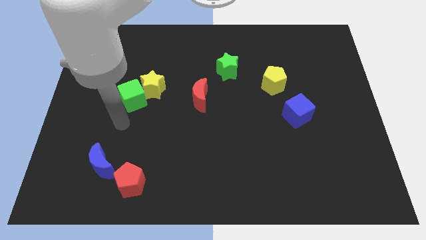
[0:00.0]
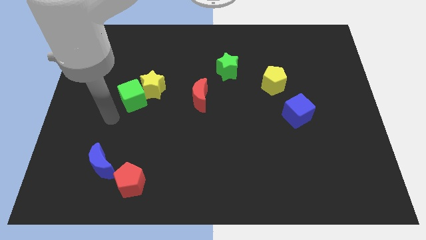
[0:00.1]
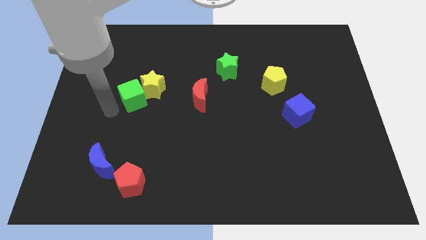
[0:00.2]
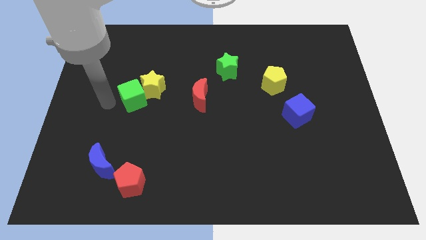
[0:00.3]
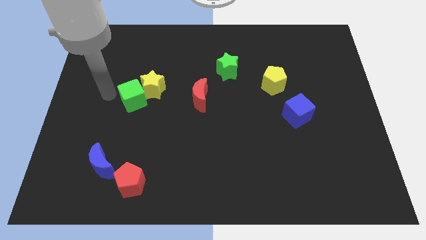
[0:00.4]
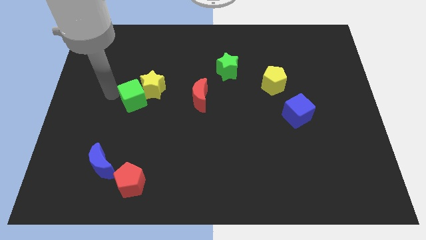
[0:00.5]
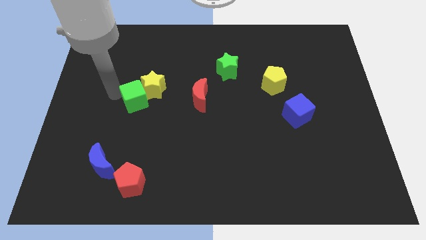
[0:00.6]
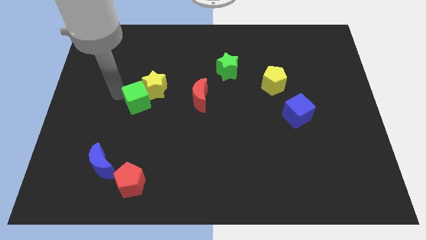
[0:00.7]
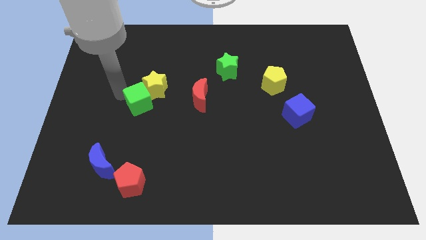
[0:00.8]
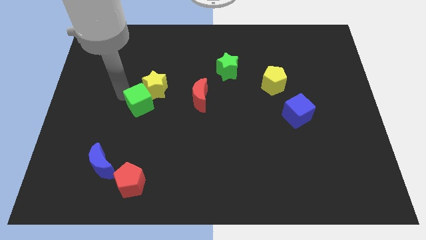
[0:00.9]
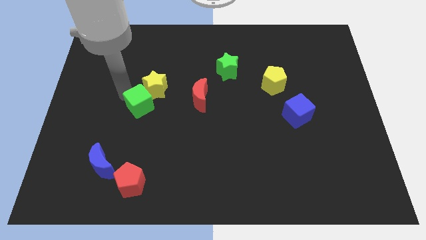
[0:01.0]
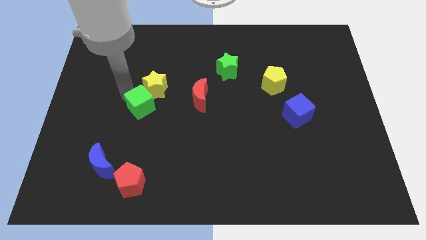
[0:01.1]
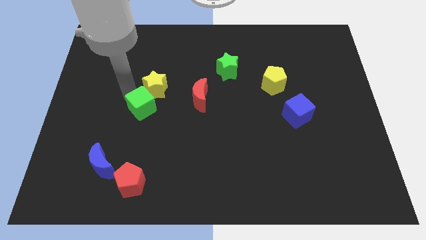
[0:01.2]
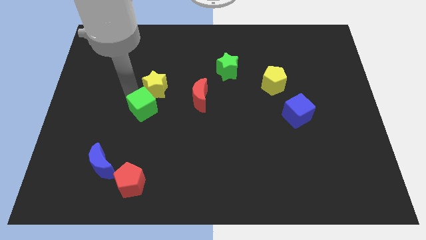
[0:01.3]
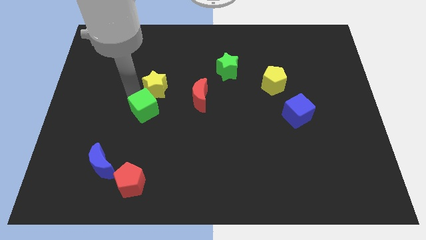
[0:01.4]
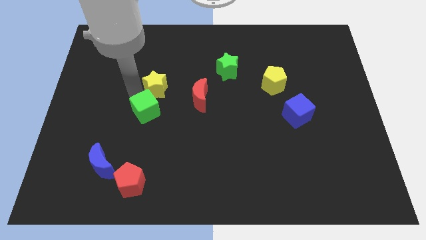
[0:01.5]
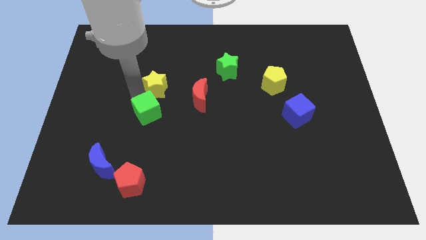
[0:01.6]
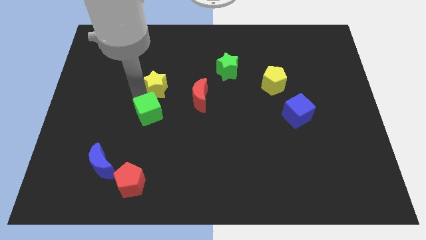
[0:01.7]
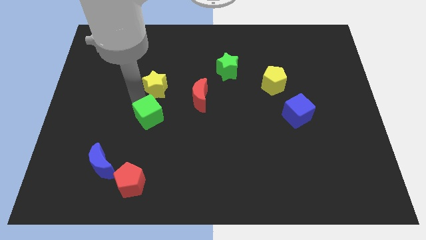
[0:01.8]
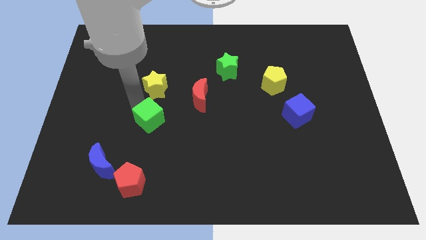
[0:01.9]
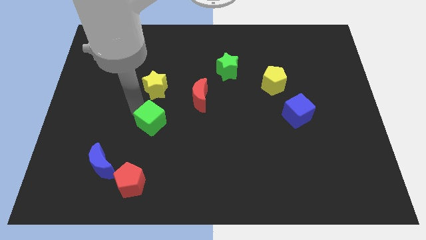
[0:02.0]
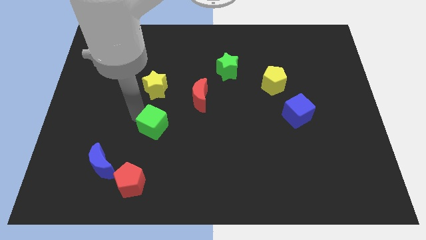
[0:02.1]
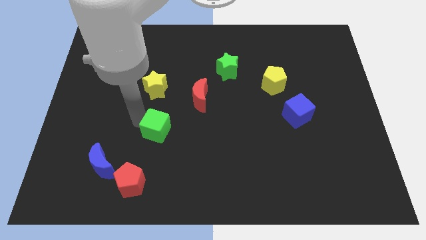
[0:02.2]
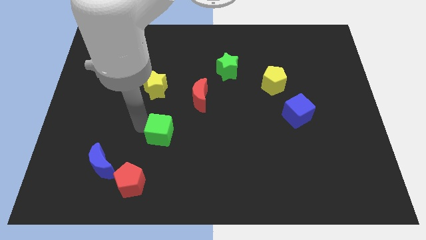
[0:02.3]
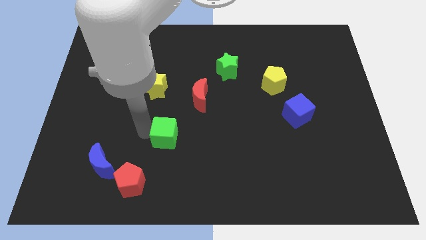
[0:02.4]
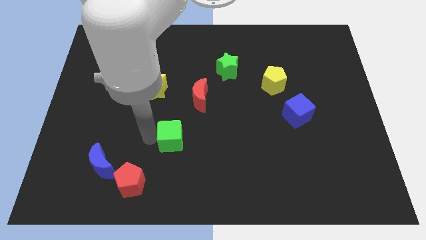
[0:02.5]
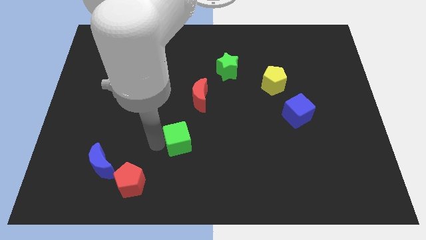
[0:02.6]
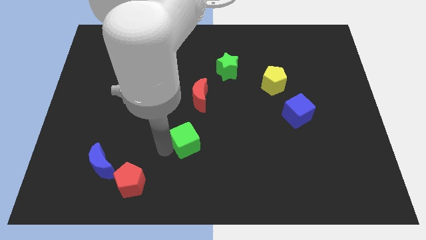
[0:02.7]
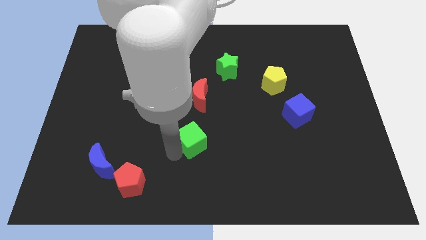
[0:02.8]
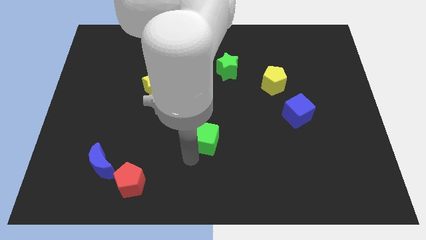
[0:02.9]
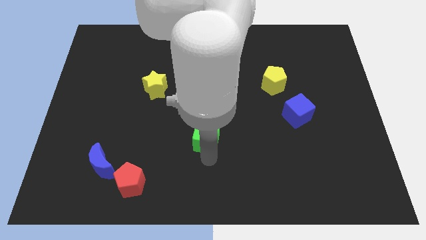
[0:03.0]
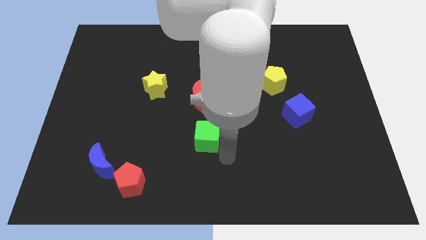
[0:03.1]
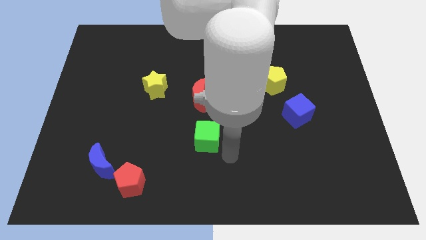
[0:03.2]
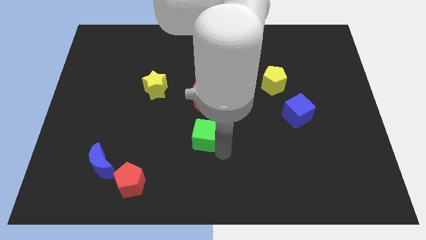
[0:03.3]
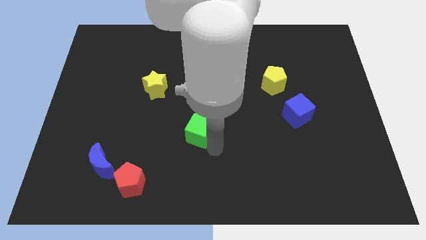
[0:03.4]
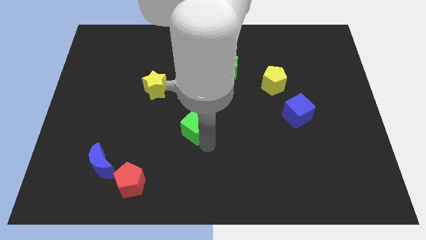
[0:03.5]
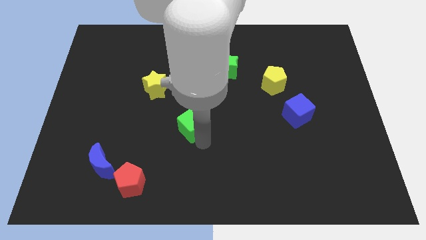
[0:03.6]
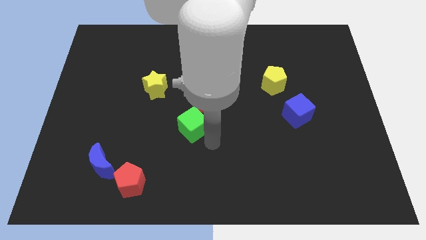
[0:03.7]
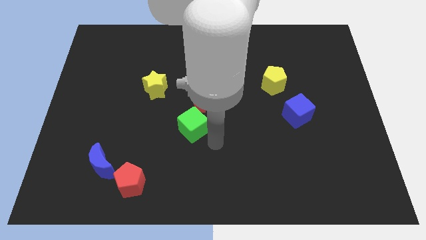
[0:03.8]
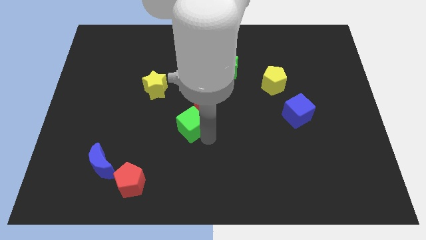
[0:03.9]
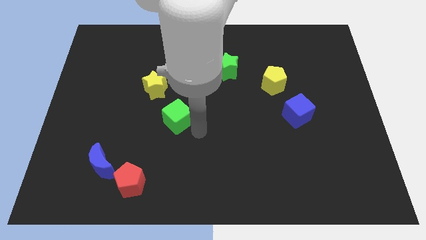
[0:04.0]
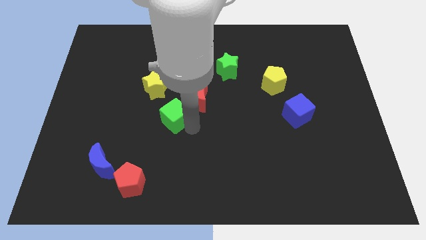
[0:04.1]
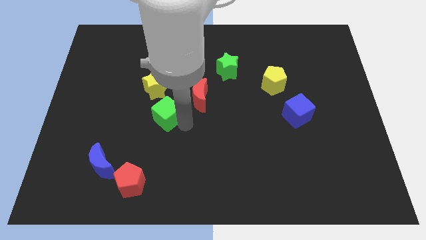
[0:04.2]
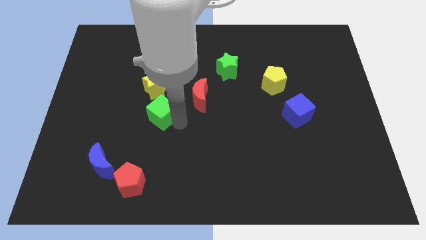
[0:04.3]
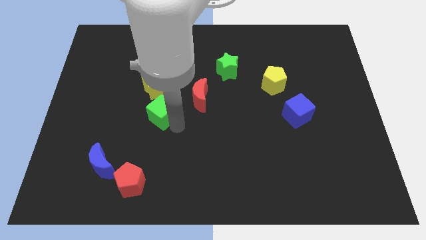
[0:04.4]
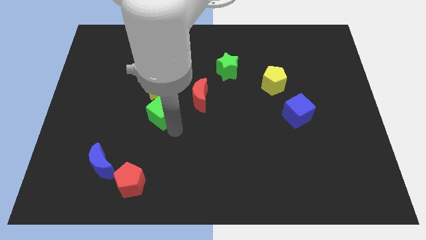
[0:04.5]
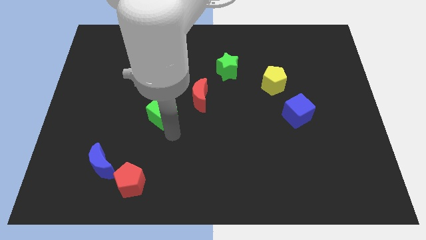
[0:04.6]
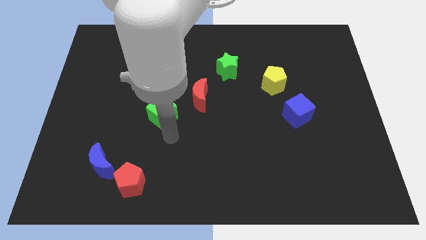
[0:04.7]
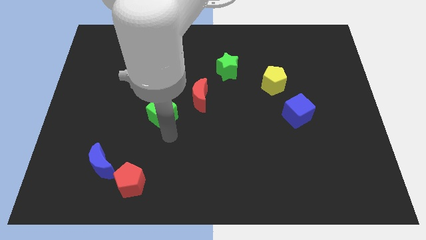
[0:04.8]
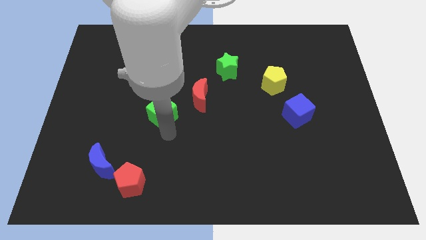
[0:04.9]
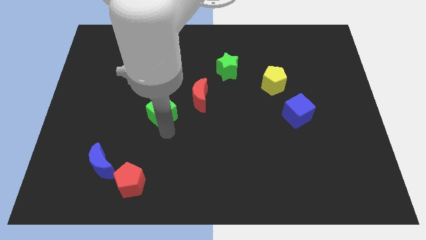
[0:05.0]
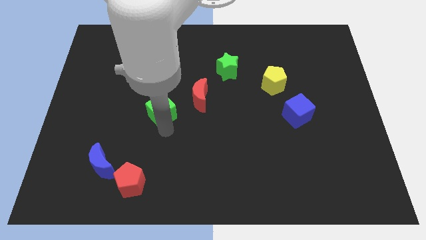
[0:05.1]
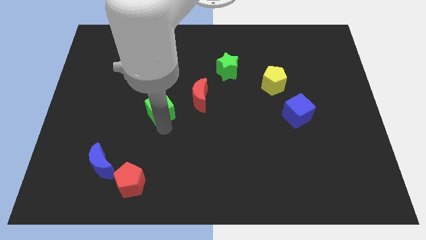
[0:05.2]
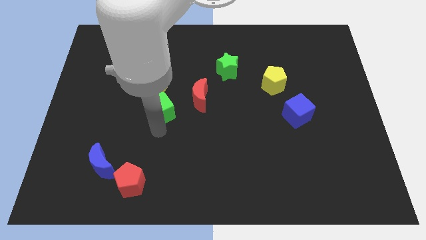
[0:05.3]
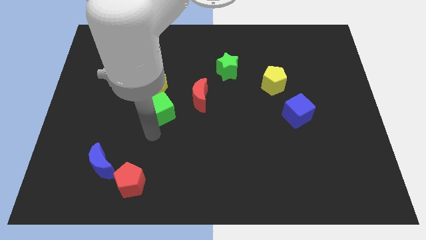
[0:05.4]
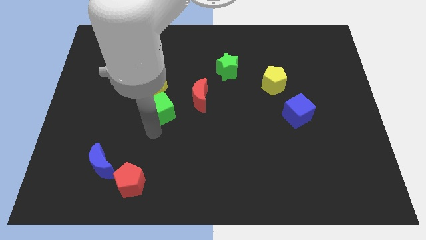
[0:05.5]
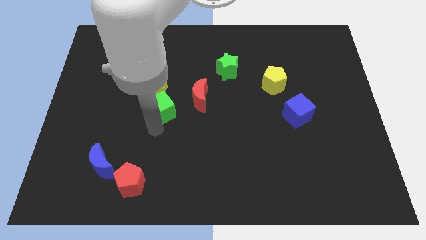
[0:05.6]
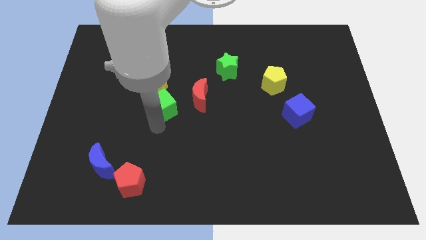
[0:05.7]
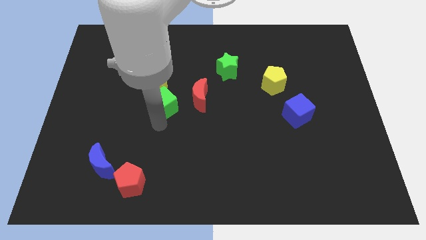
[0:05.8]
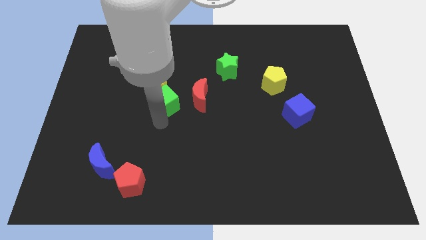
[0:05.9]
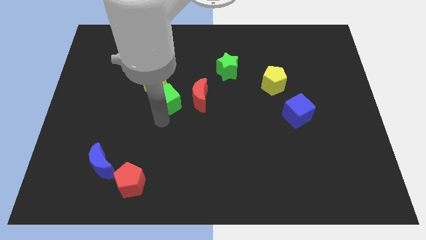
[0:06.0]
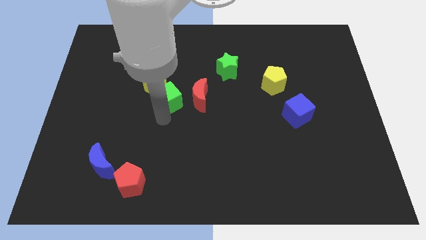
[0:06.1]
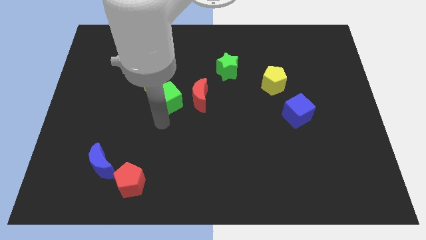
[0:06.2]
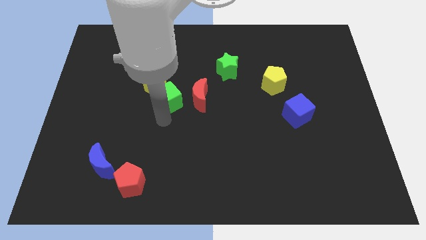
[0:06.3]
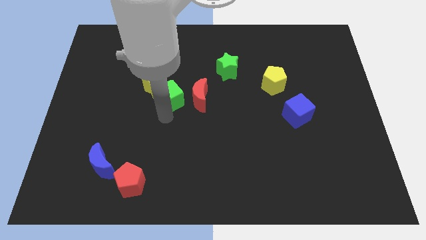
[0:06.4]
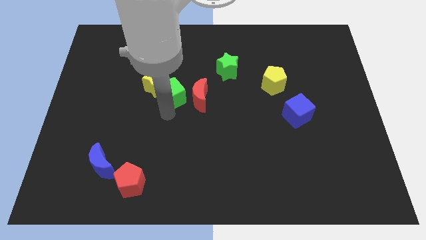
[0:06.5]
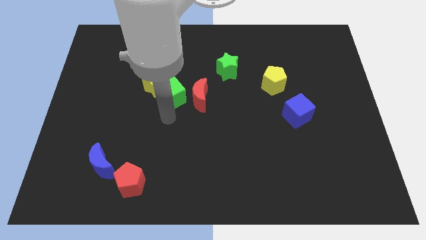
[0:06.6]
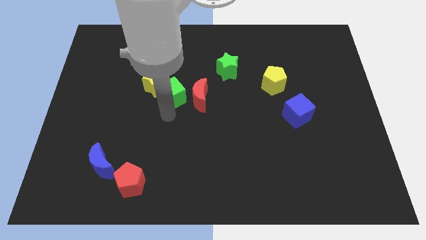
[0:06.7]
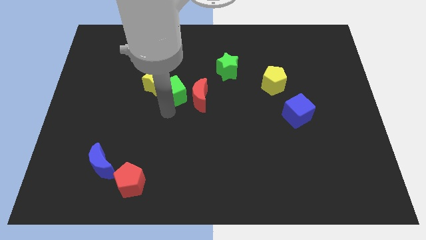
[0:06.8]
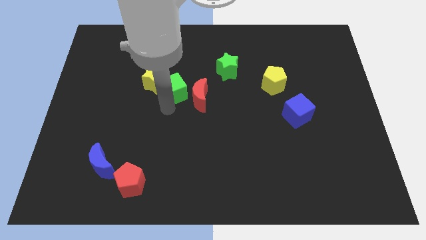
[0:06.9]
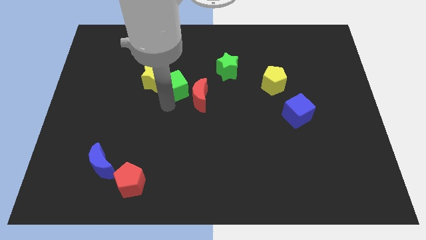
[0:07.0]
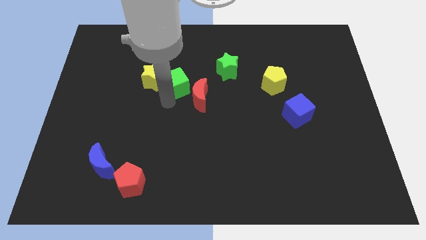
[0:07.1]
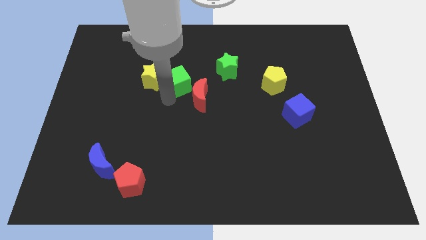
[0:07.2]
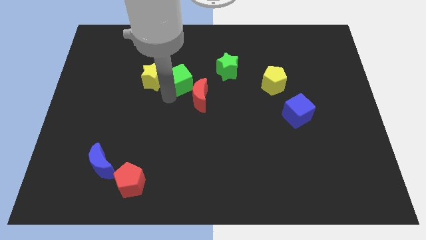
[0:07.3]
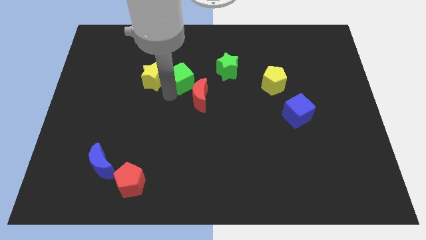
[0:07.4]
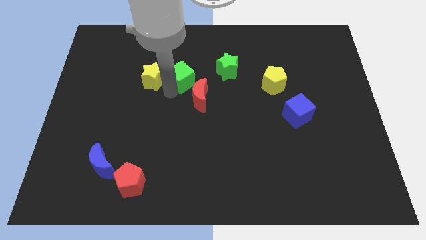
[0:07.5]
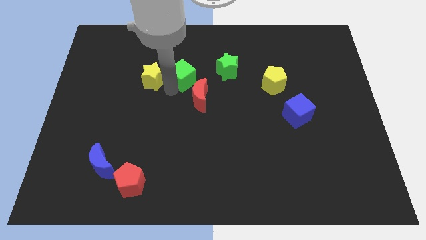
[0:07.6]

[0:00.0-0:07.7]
move the green cube to the top right of the yellow star
